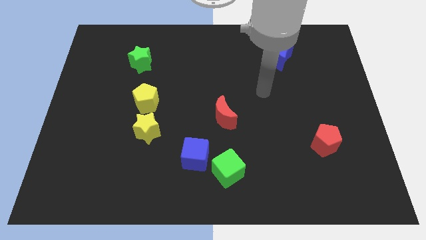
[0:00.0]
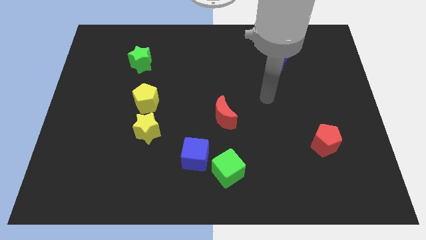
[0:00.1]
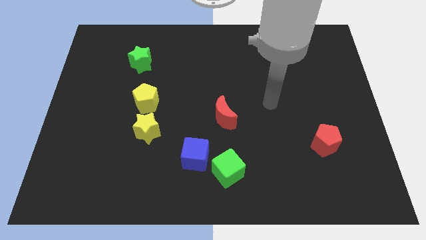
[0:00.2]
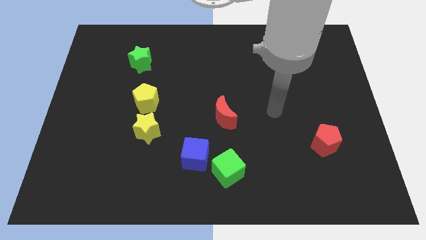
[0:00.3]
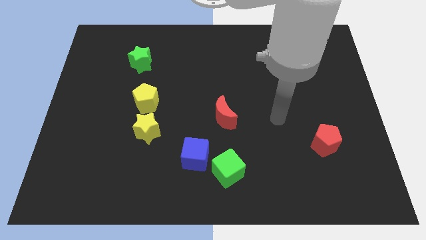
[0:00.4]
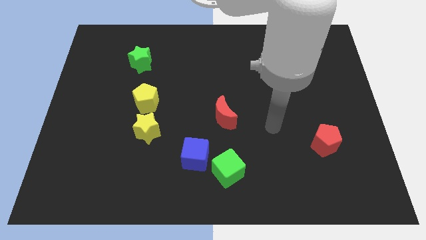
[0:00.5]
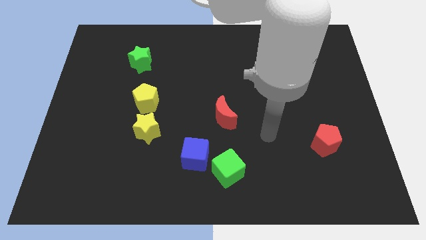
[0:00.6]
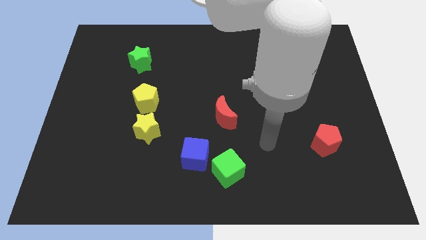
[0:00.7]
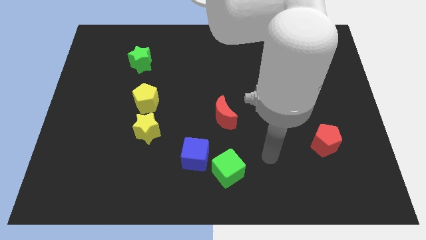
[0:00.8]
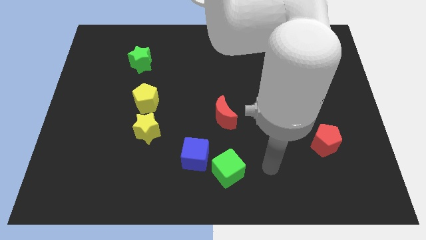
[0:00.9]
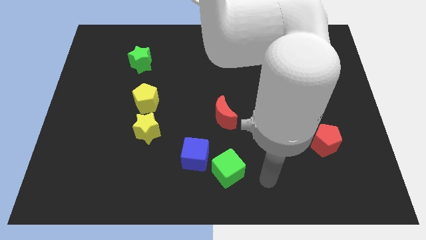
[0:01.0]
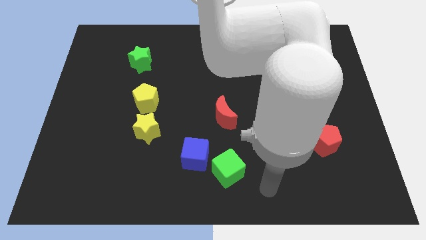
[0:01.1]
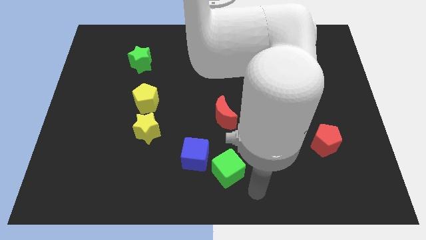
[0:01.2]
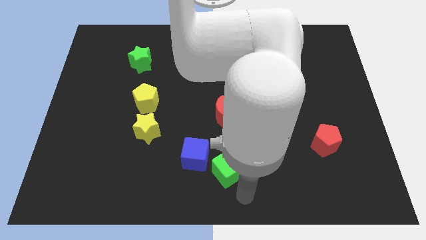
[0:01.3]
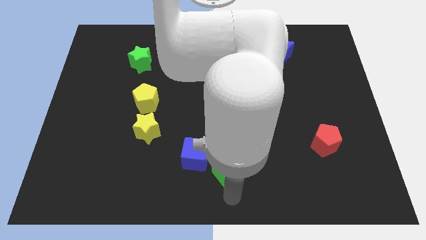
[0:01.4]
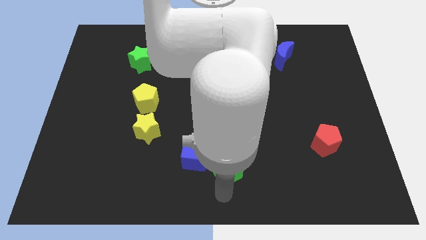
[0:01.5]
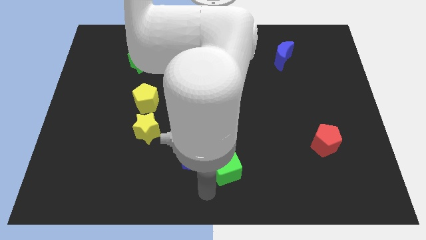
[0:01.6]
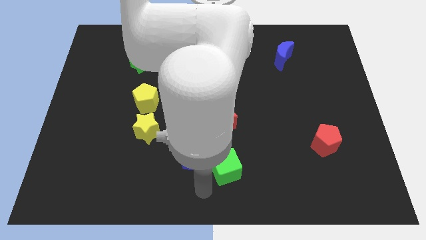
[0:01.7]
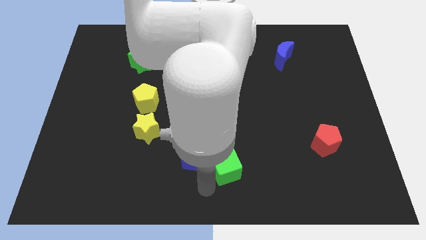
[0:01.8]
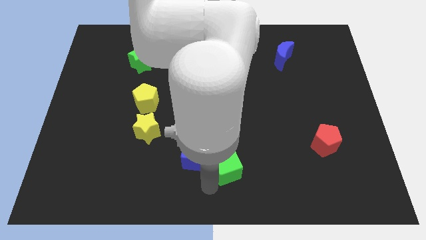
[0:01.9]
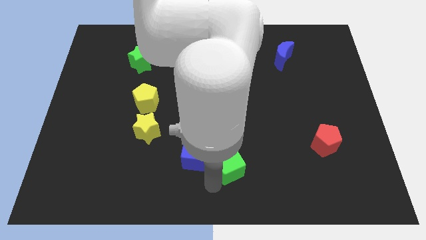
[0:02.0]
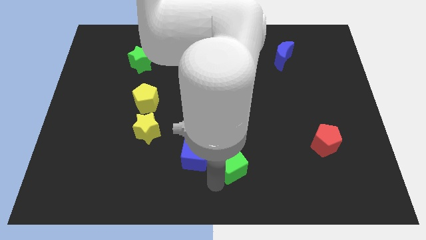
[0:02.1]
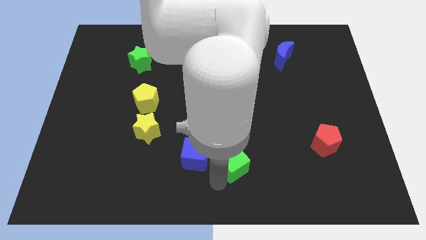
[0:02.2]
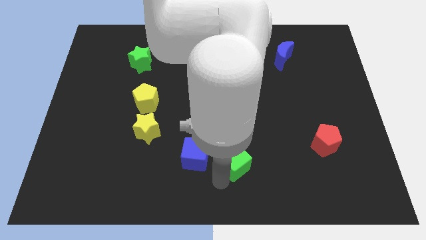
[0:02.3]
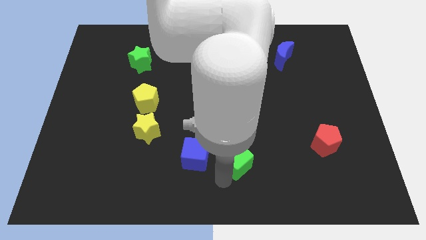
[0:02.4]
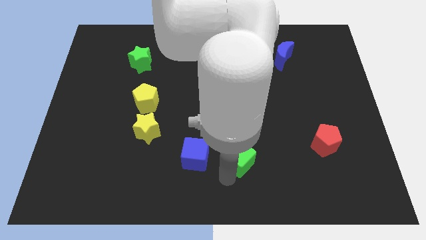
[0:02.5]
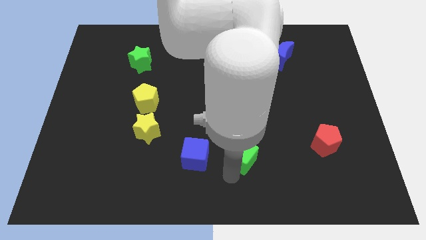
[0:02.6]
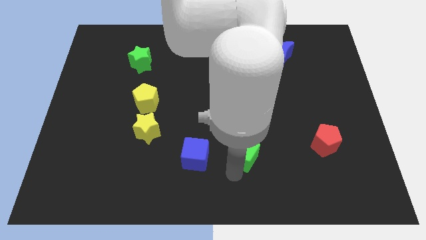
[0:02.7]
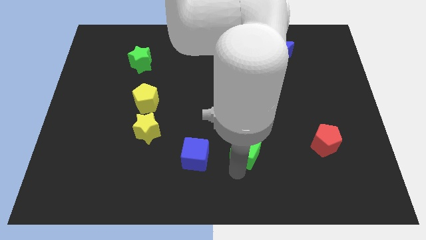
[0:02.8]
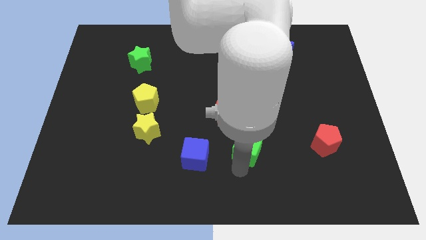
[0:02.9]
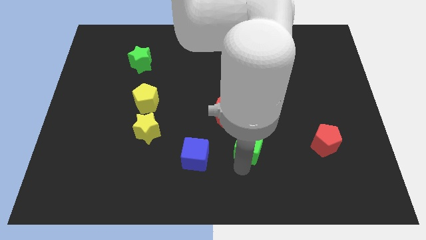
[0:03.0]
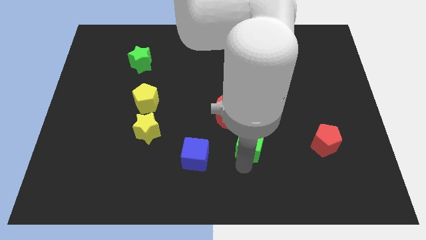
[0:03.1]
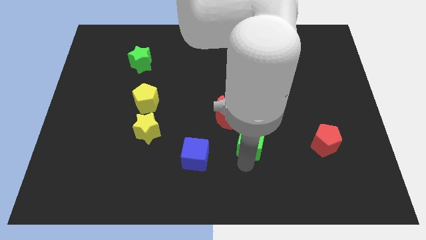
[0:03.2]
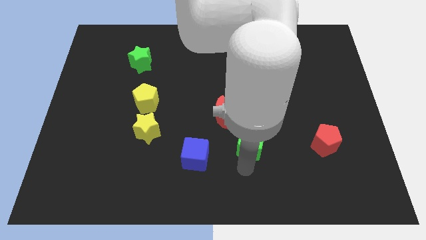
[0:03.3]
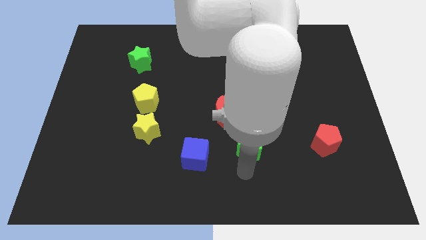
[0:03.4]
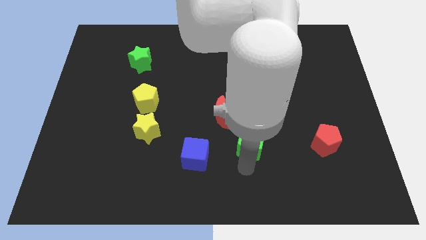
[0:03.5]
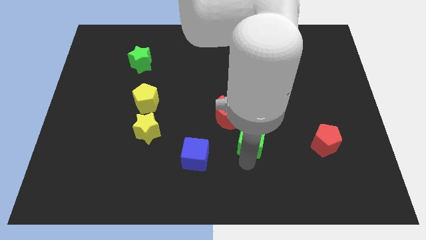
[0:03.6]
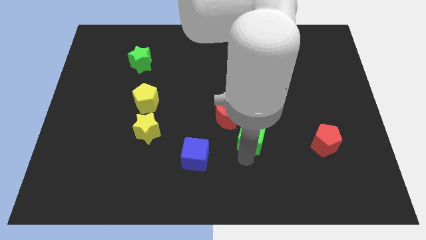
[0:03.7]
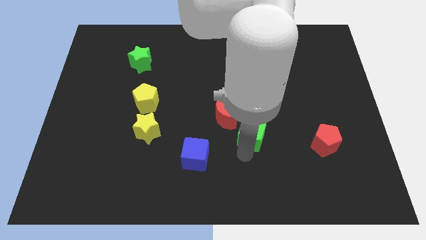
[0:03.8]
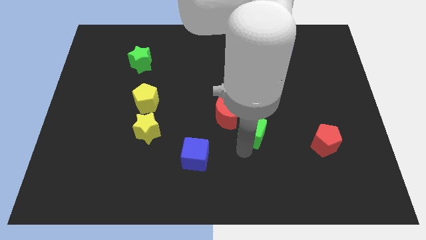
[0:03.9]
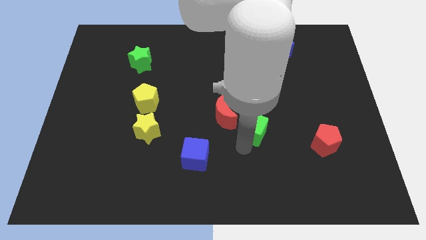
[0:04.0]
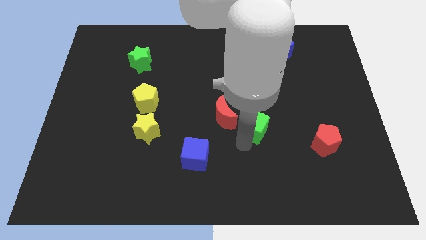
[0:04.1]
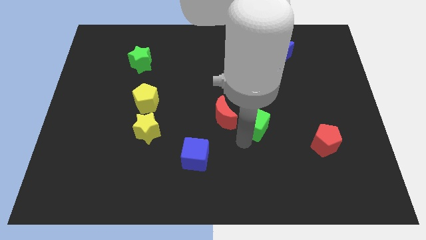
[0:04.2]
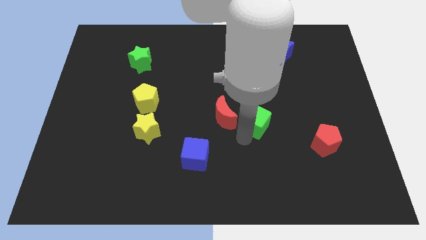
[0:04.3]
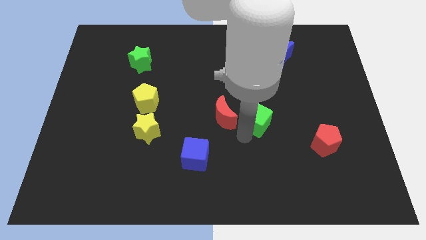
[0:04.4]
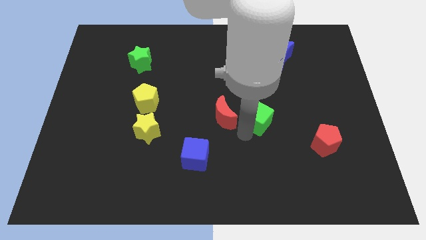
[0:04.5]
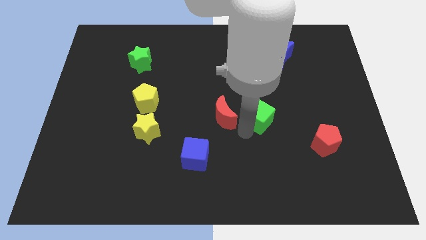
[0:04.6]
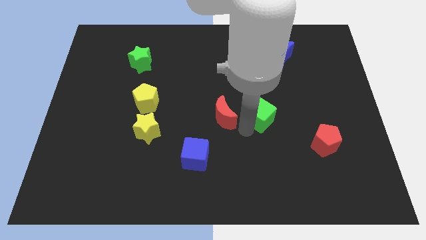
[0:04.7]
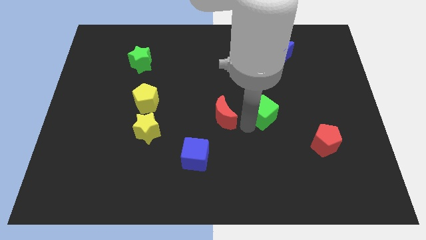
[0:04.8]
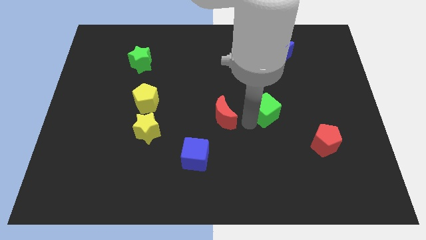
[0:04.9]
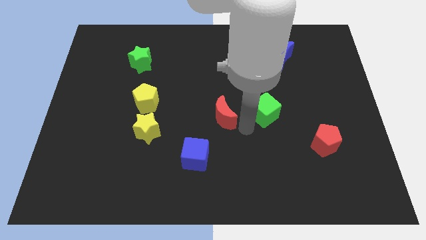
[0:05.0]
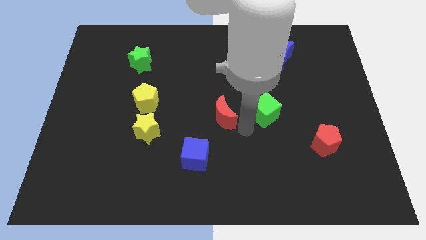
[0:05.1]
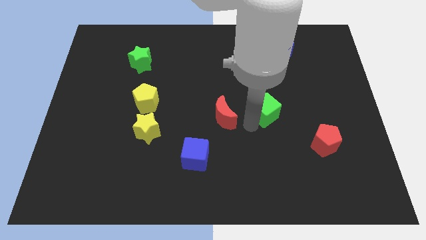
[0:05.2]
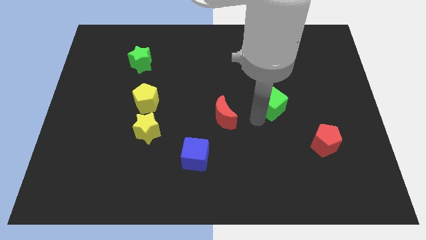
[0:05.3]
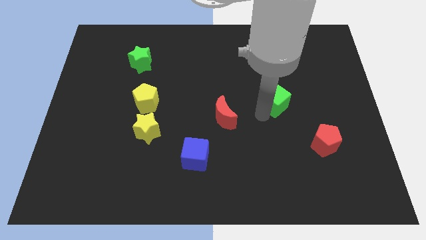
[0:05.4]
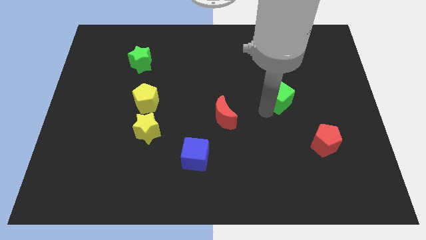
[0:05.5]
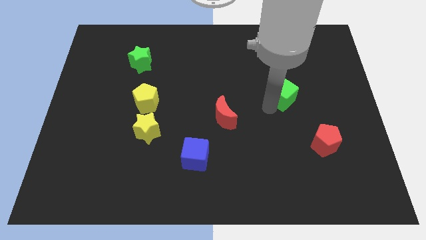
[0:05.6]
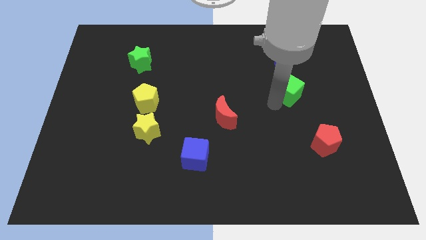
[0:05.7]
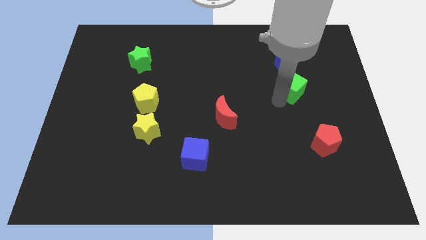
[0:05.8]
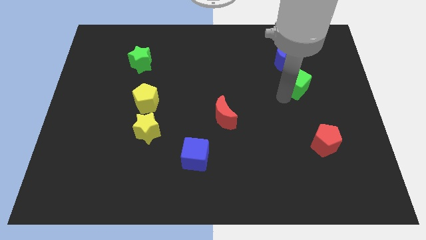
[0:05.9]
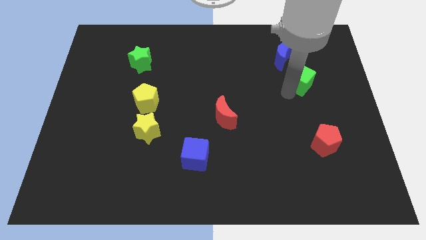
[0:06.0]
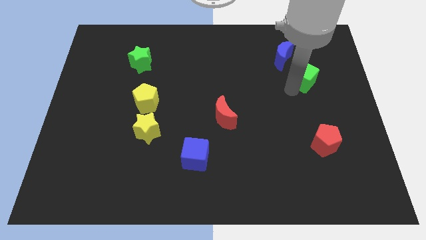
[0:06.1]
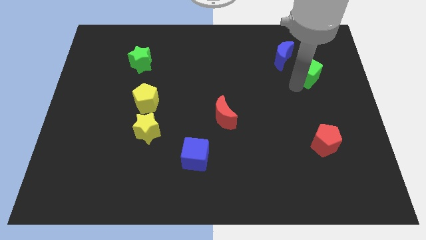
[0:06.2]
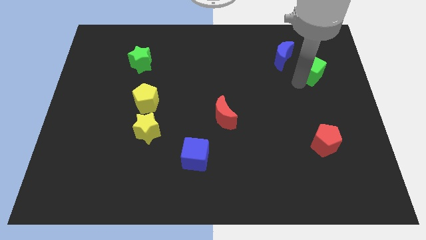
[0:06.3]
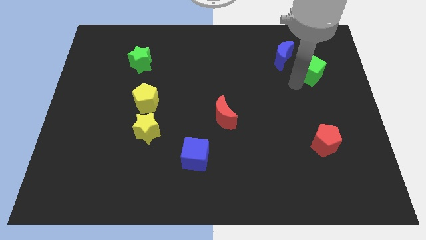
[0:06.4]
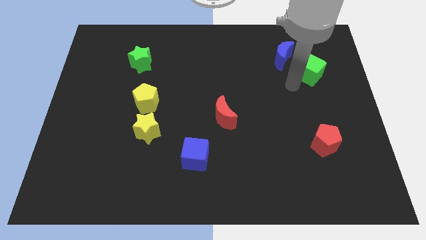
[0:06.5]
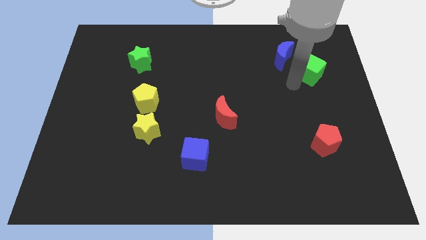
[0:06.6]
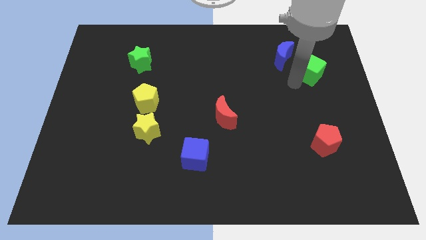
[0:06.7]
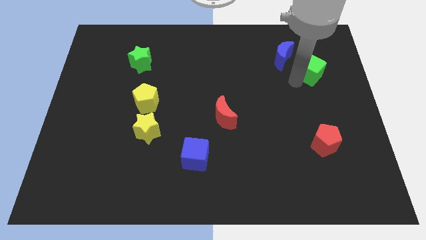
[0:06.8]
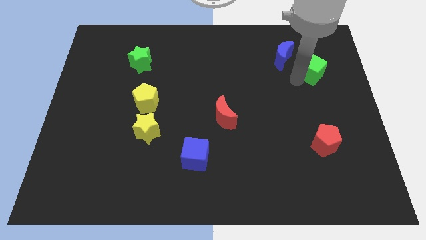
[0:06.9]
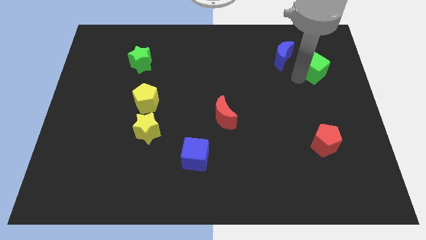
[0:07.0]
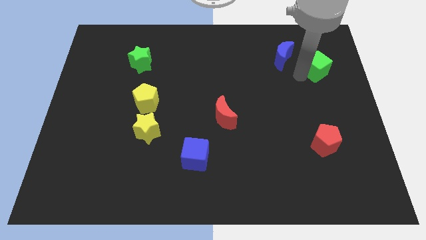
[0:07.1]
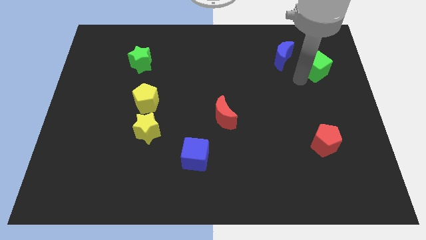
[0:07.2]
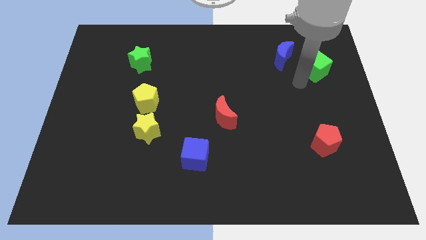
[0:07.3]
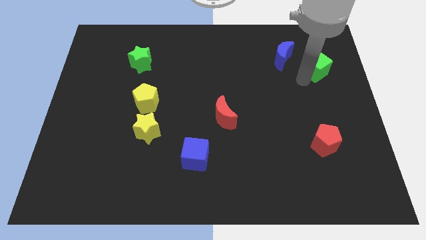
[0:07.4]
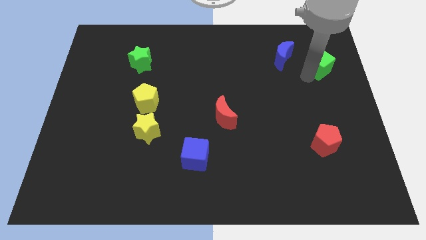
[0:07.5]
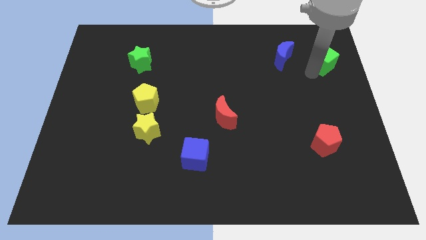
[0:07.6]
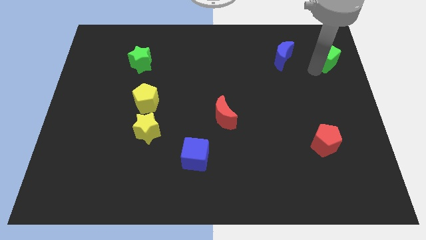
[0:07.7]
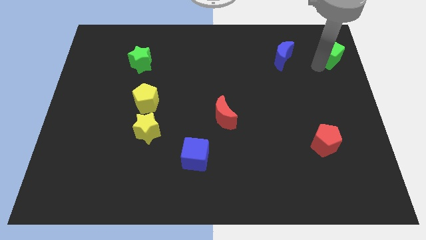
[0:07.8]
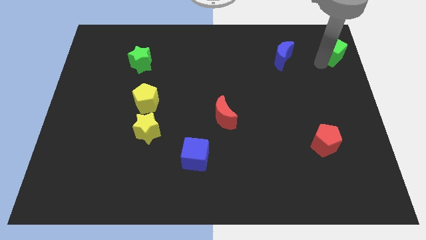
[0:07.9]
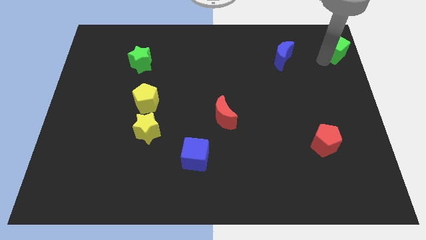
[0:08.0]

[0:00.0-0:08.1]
slide the green cube to the top right of the board
